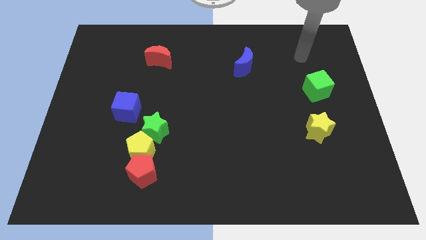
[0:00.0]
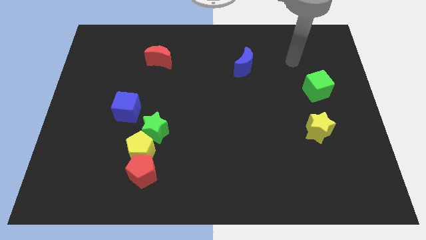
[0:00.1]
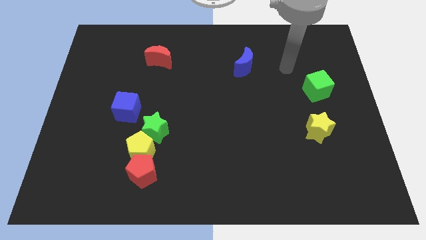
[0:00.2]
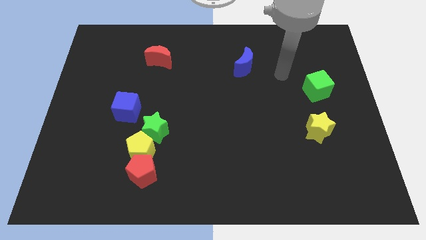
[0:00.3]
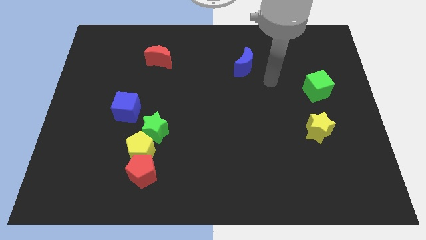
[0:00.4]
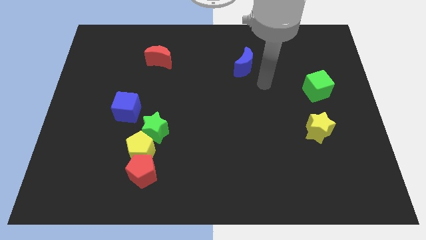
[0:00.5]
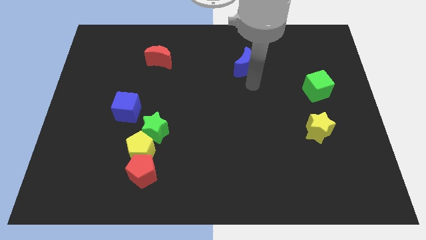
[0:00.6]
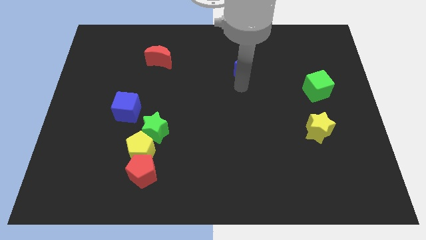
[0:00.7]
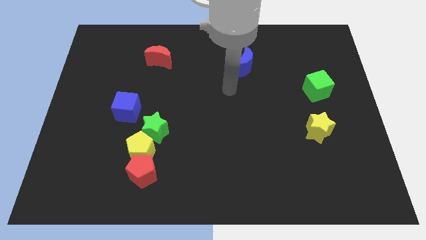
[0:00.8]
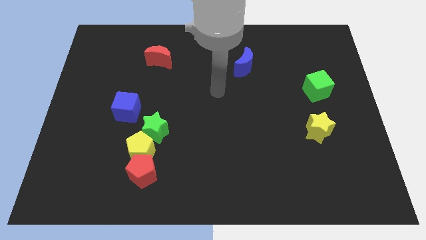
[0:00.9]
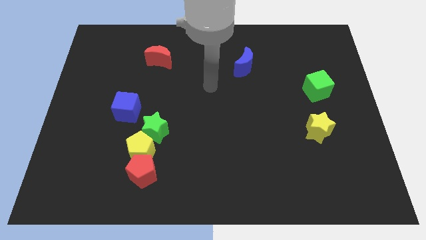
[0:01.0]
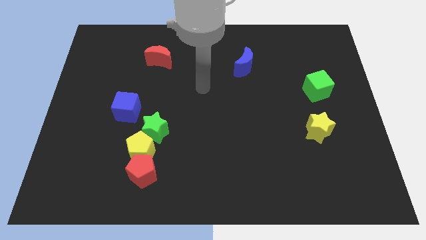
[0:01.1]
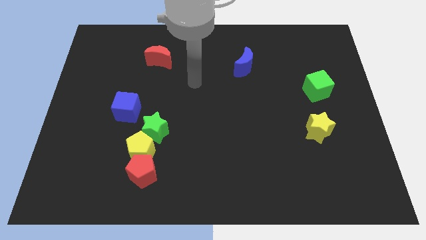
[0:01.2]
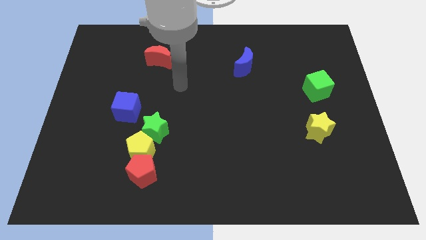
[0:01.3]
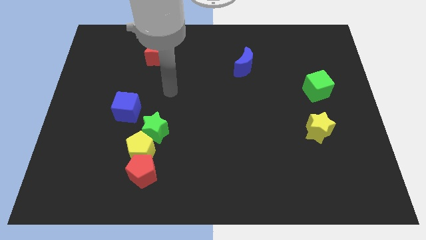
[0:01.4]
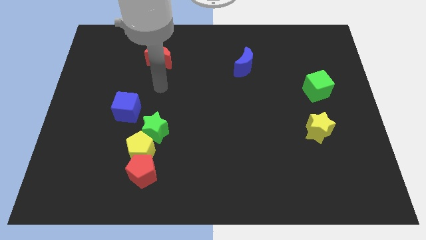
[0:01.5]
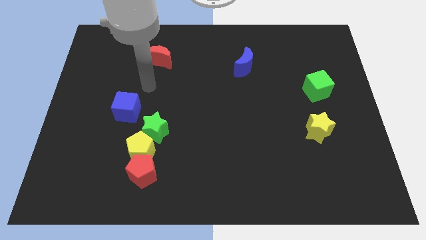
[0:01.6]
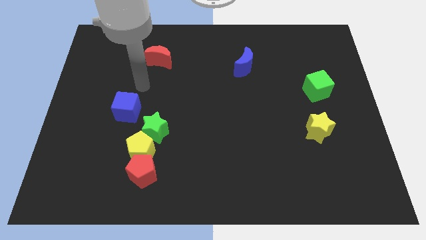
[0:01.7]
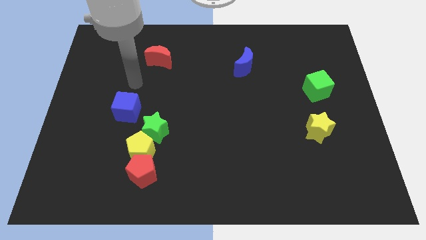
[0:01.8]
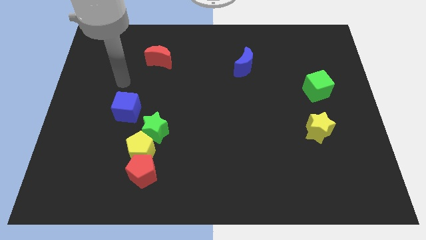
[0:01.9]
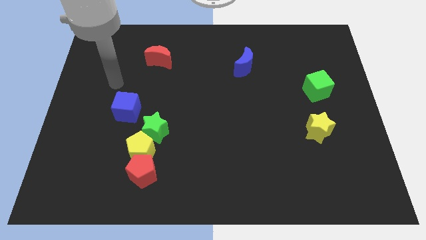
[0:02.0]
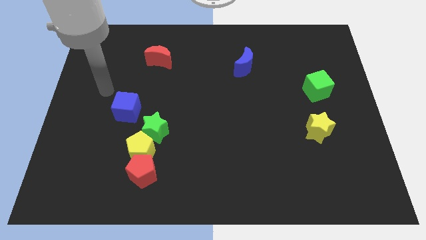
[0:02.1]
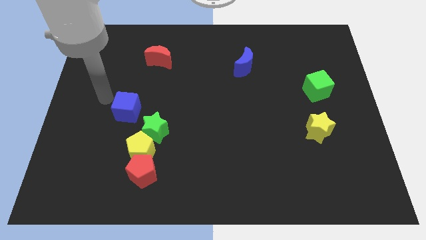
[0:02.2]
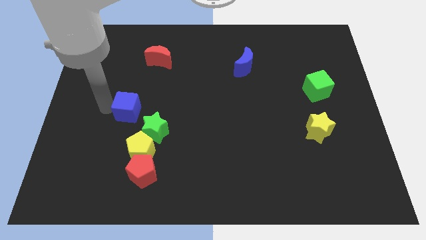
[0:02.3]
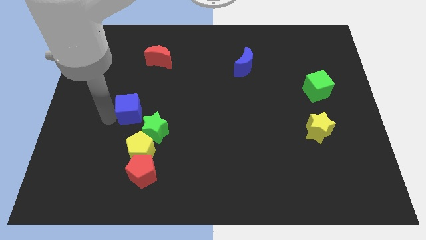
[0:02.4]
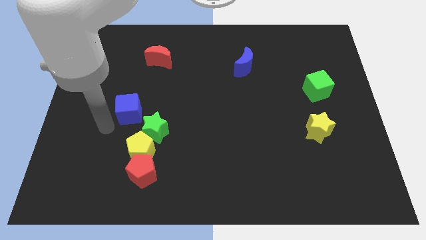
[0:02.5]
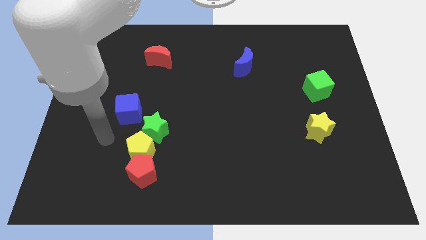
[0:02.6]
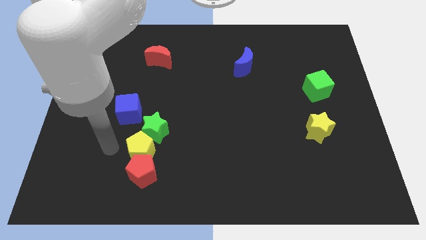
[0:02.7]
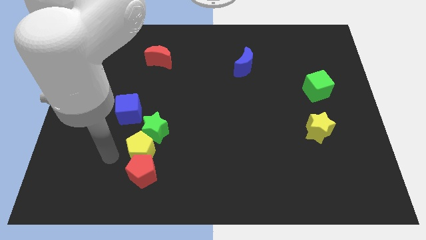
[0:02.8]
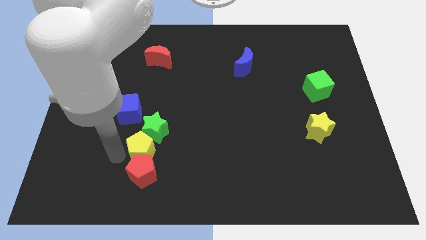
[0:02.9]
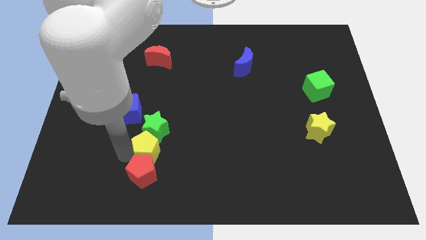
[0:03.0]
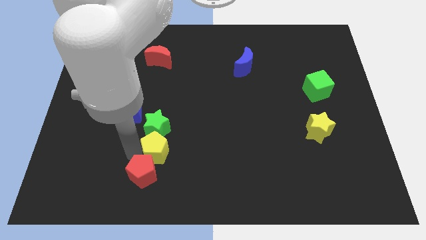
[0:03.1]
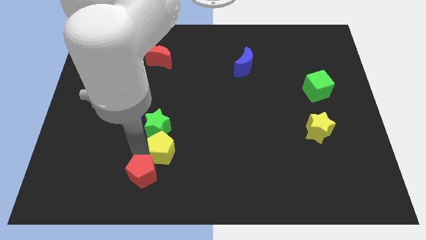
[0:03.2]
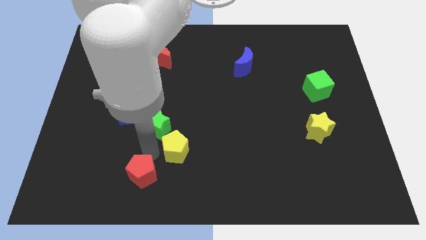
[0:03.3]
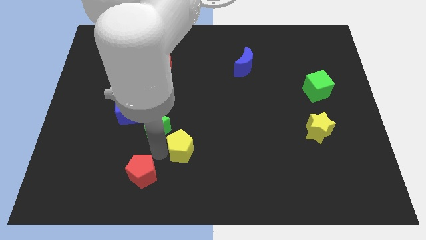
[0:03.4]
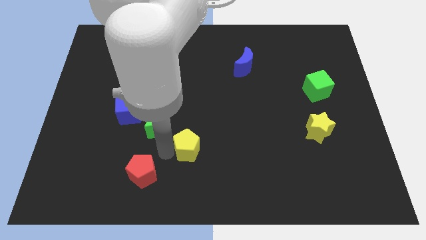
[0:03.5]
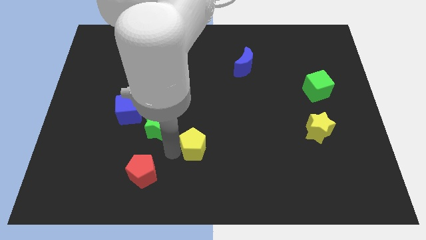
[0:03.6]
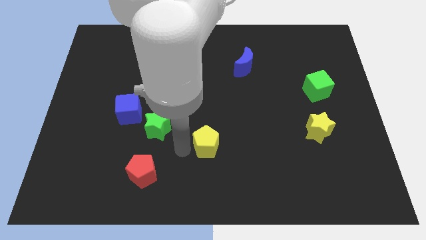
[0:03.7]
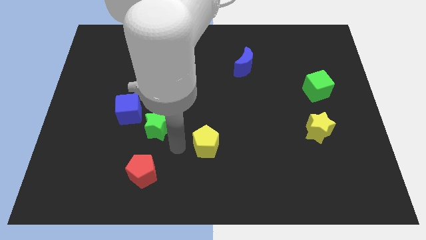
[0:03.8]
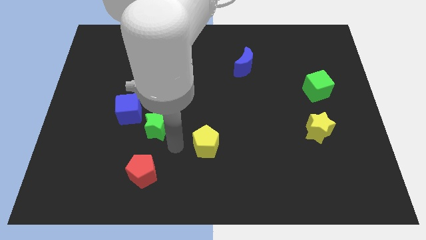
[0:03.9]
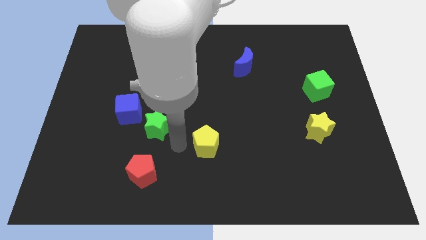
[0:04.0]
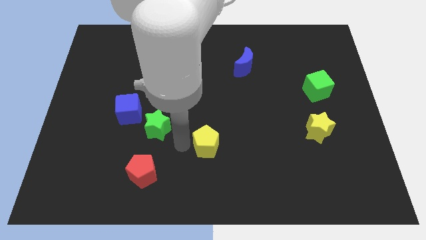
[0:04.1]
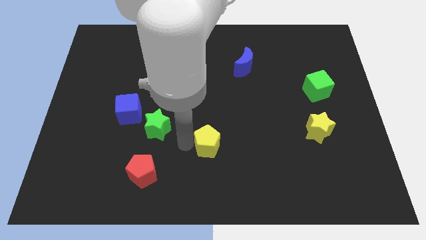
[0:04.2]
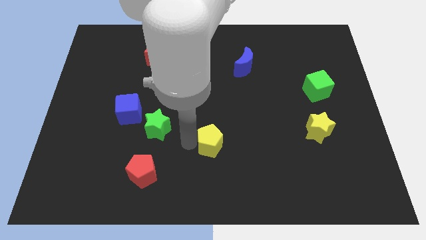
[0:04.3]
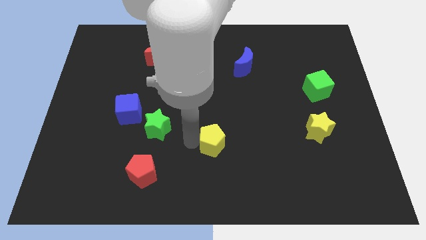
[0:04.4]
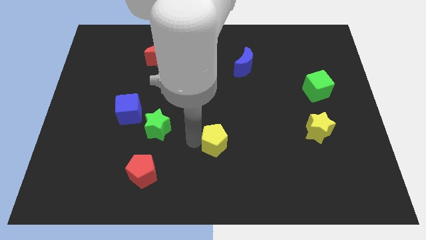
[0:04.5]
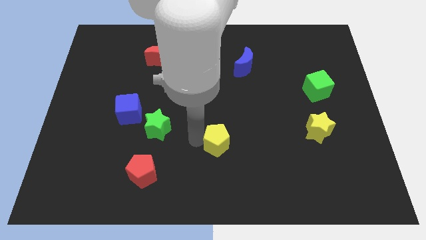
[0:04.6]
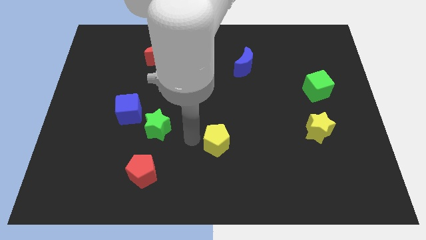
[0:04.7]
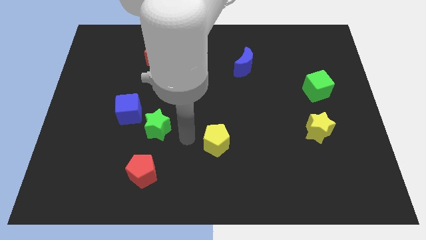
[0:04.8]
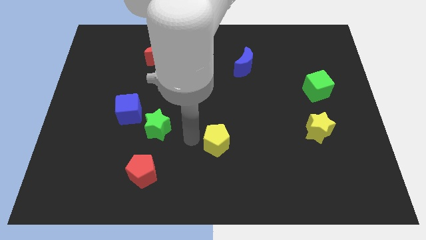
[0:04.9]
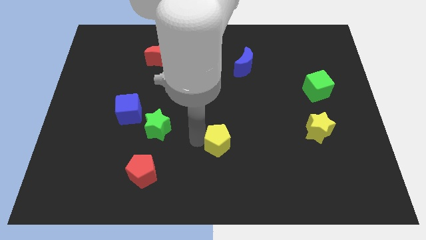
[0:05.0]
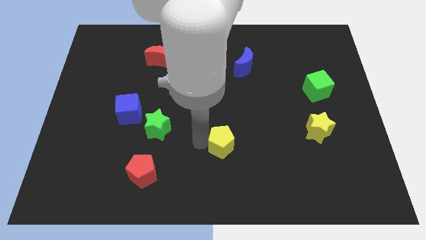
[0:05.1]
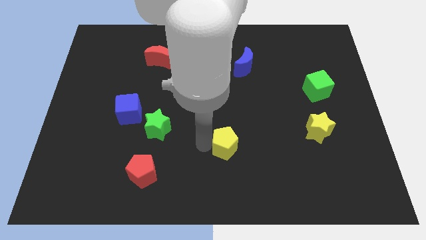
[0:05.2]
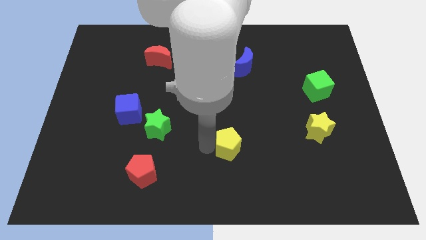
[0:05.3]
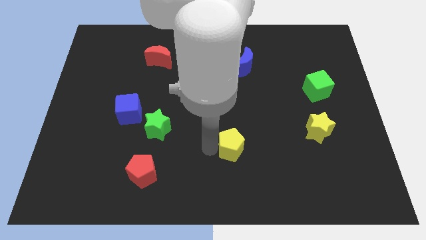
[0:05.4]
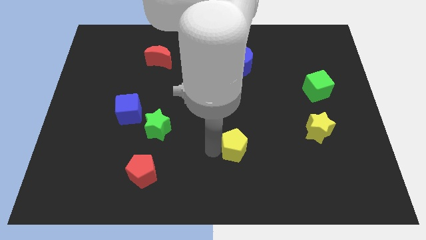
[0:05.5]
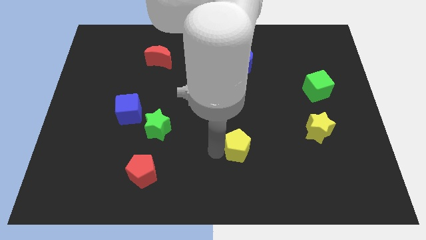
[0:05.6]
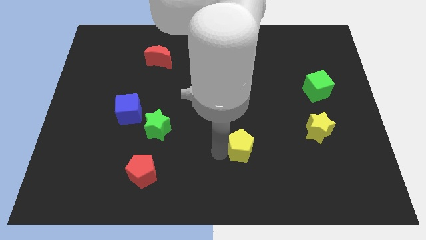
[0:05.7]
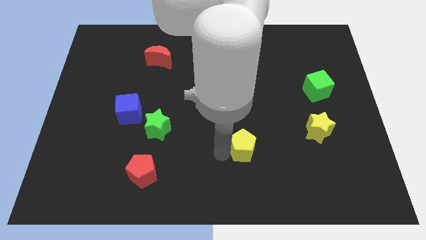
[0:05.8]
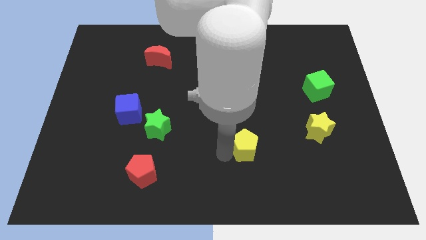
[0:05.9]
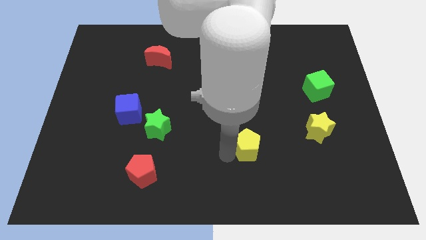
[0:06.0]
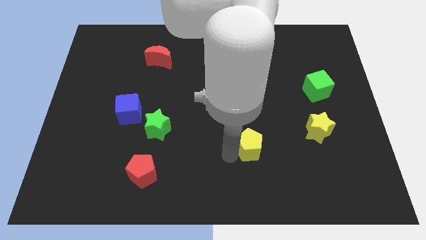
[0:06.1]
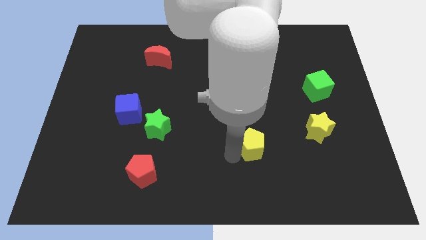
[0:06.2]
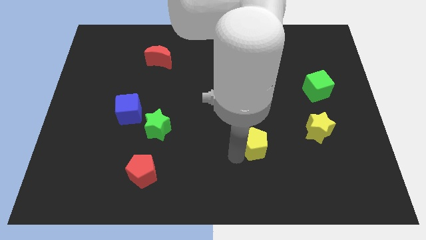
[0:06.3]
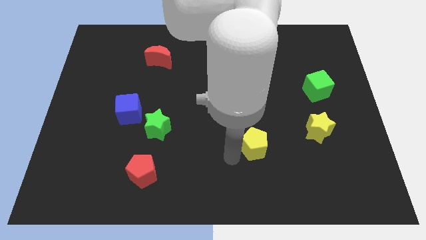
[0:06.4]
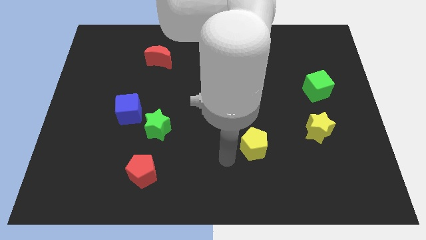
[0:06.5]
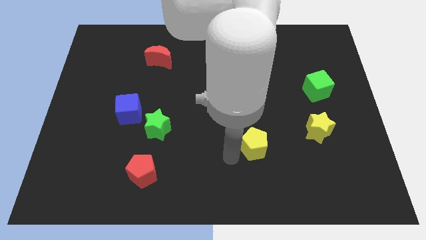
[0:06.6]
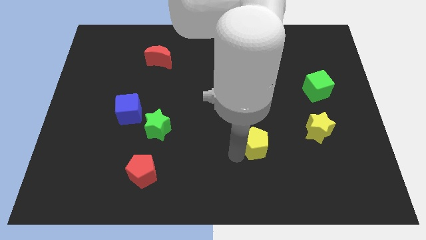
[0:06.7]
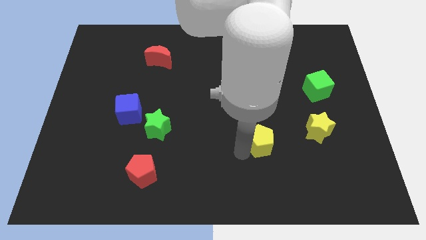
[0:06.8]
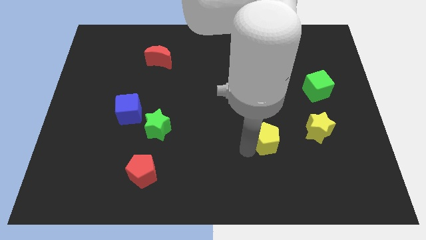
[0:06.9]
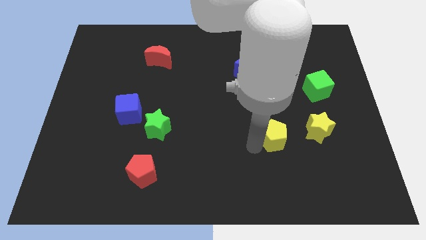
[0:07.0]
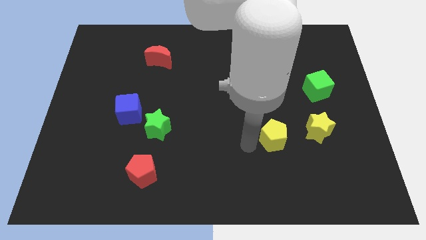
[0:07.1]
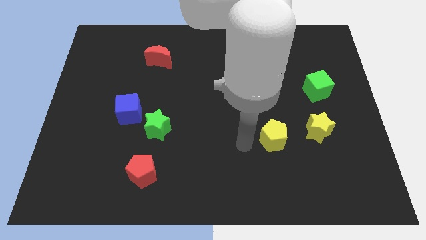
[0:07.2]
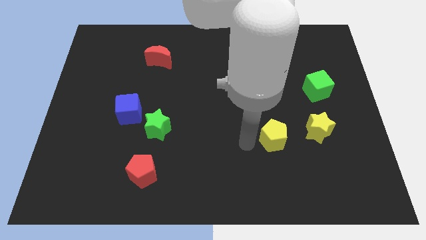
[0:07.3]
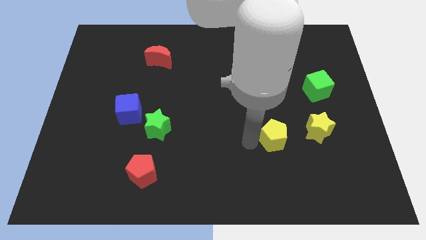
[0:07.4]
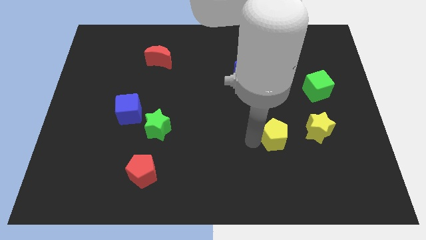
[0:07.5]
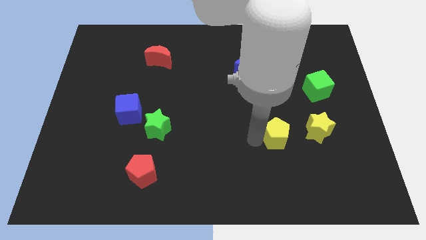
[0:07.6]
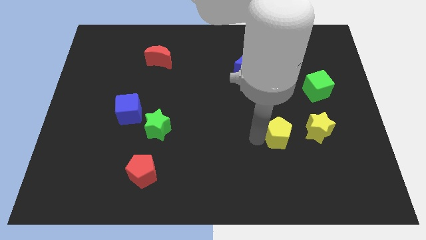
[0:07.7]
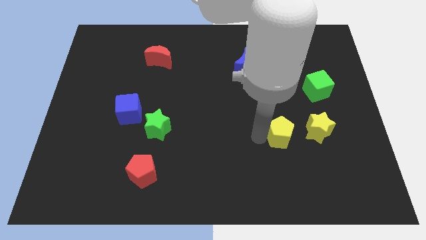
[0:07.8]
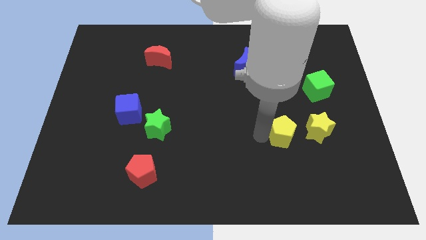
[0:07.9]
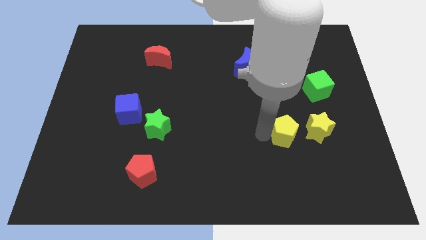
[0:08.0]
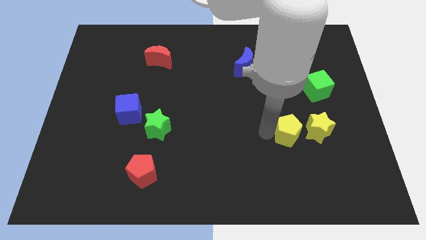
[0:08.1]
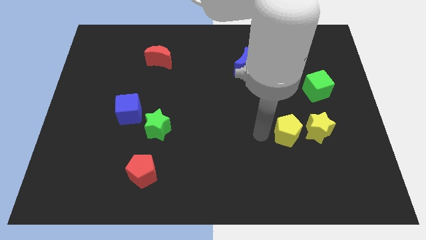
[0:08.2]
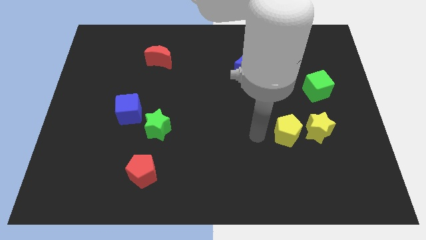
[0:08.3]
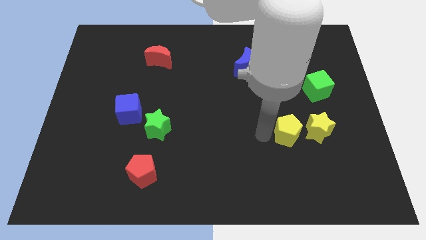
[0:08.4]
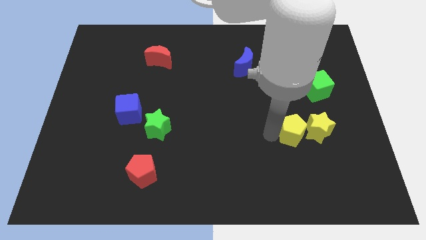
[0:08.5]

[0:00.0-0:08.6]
move the yellow pentagon towards the yellow star
